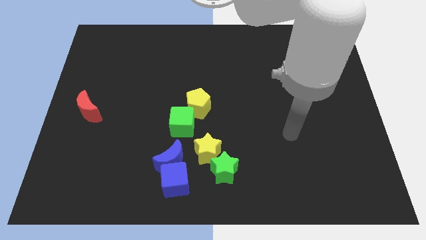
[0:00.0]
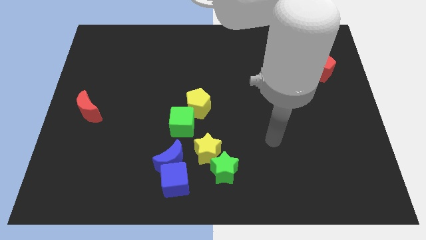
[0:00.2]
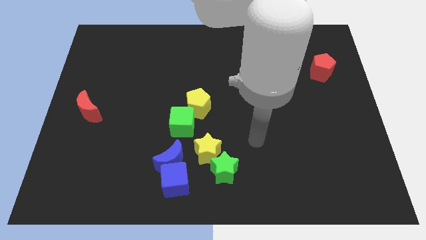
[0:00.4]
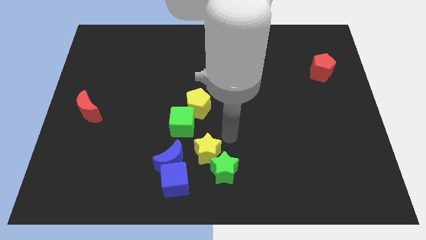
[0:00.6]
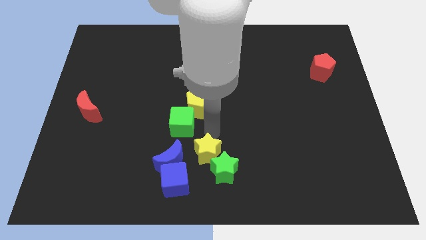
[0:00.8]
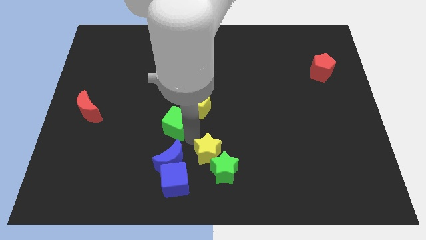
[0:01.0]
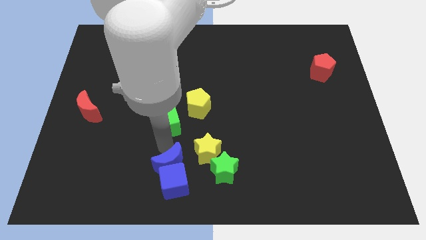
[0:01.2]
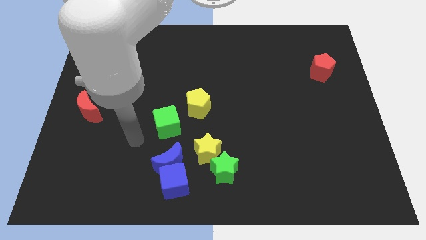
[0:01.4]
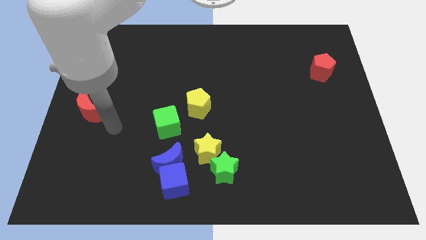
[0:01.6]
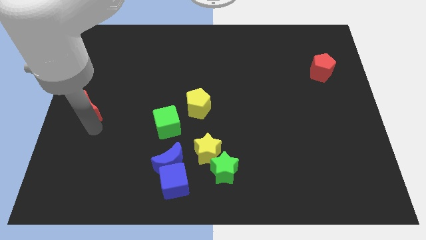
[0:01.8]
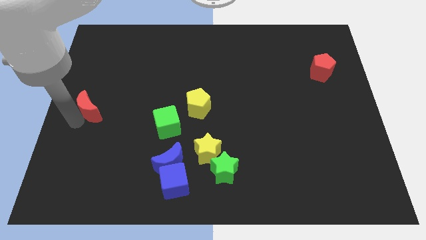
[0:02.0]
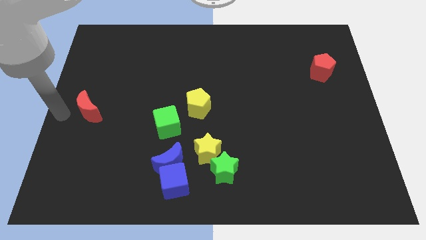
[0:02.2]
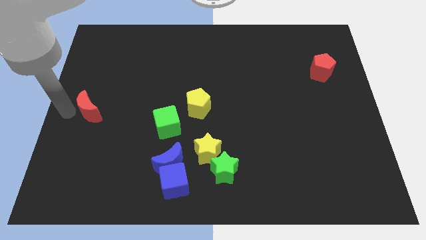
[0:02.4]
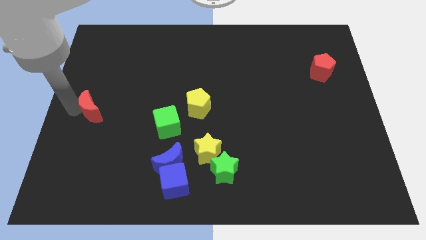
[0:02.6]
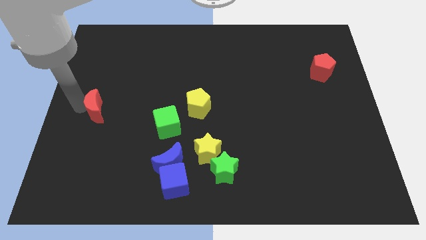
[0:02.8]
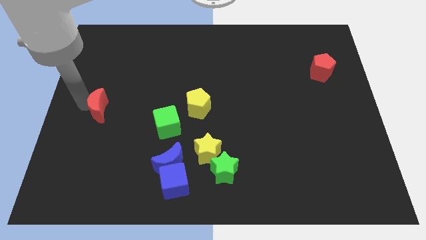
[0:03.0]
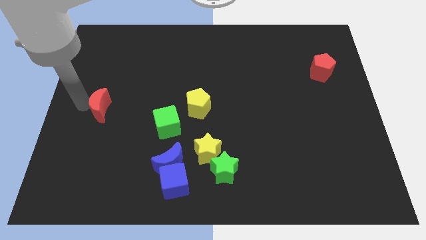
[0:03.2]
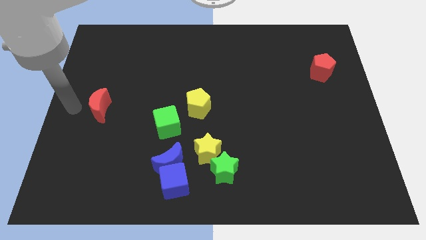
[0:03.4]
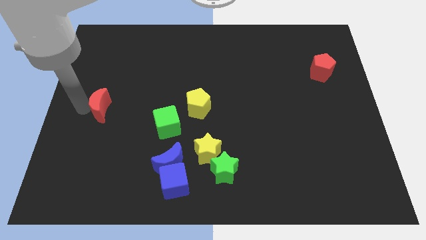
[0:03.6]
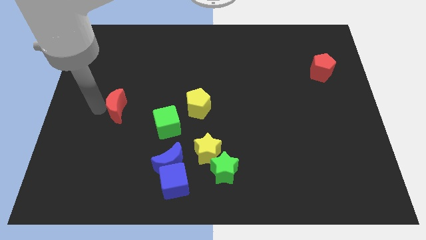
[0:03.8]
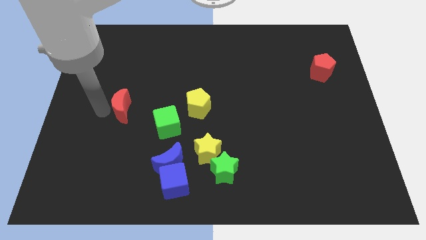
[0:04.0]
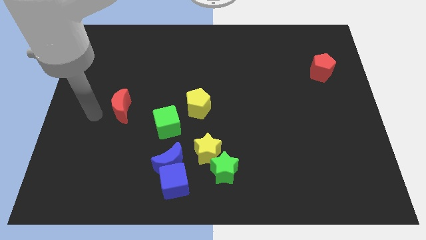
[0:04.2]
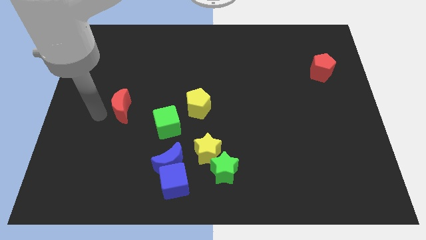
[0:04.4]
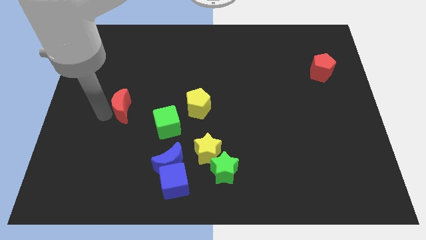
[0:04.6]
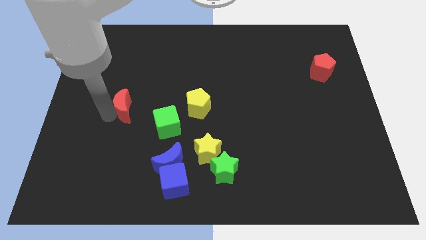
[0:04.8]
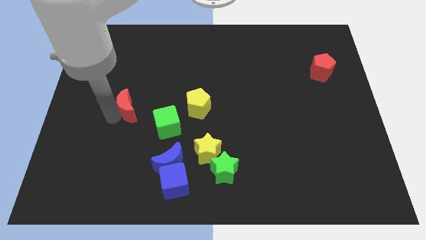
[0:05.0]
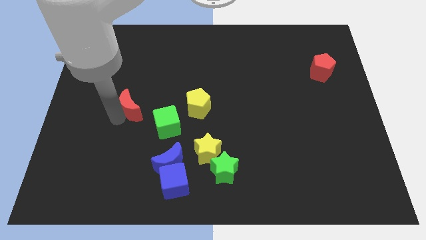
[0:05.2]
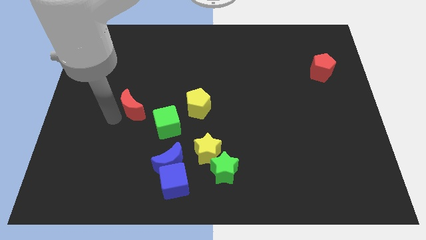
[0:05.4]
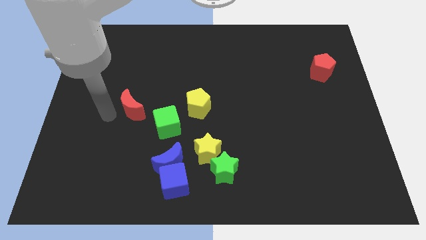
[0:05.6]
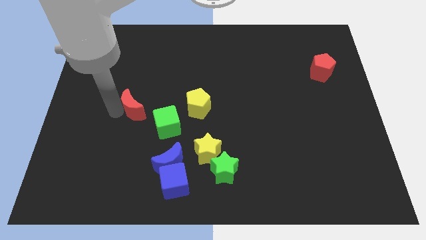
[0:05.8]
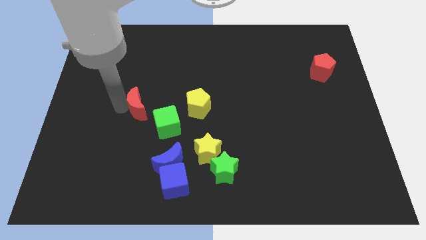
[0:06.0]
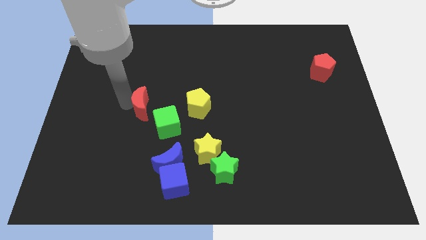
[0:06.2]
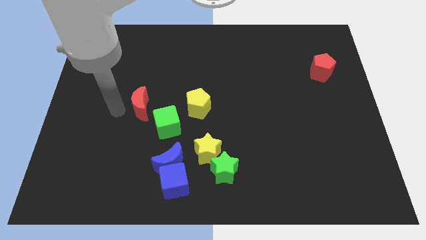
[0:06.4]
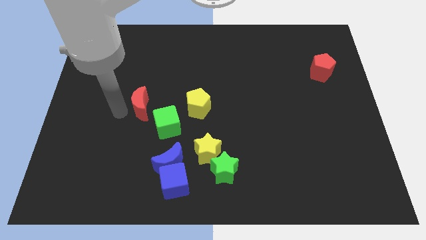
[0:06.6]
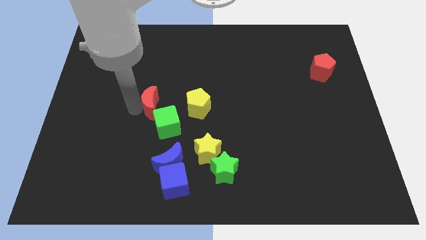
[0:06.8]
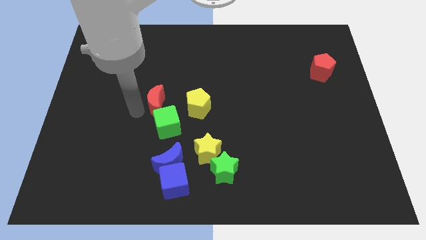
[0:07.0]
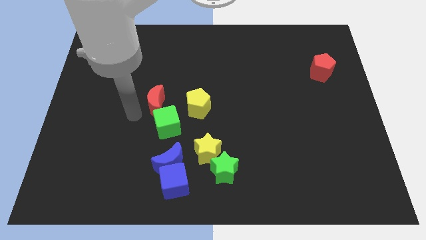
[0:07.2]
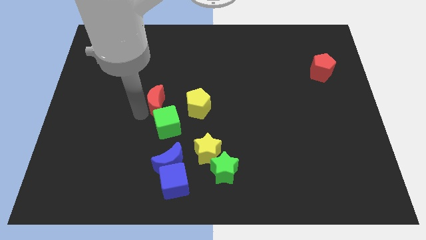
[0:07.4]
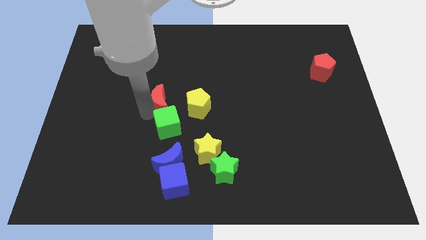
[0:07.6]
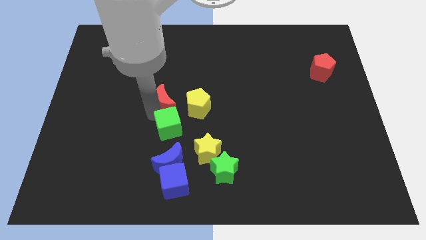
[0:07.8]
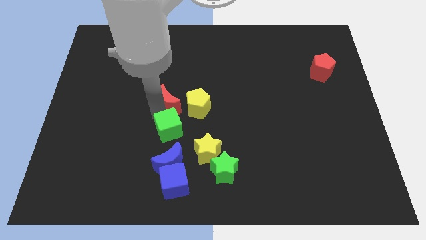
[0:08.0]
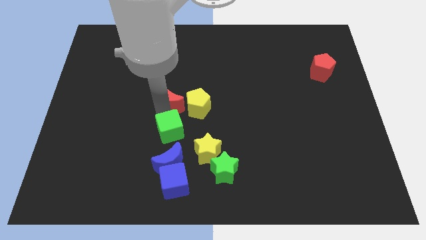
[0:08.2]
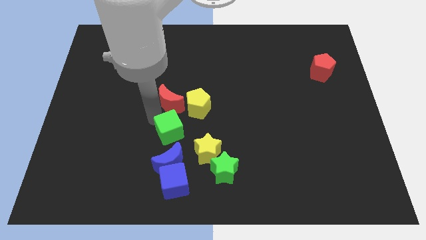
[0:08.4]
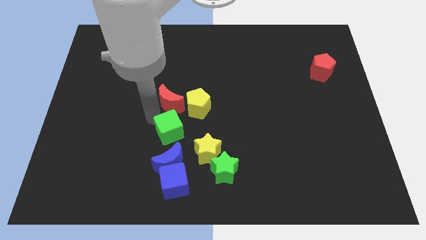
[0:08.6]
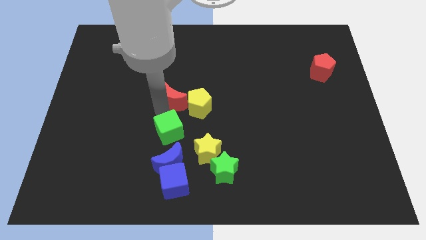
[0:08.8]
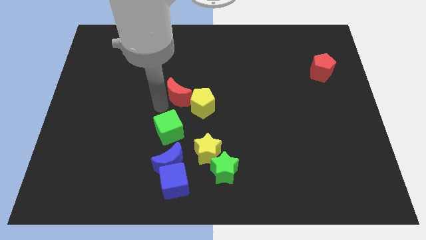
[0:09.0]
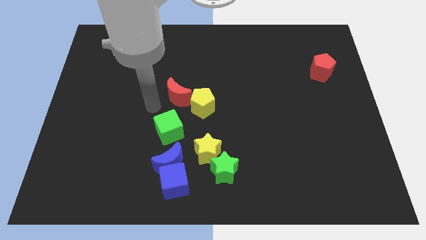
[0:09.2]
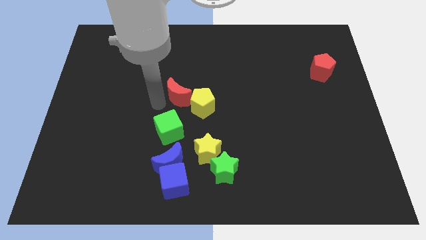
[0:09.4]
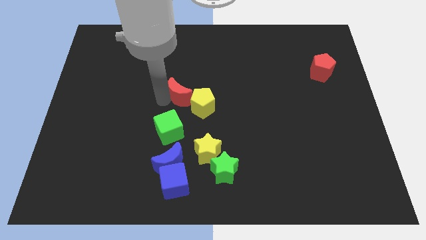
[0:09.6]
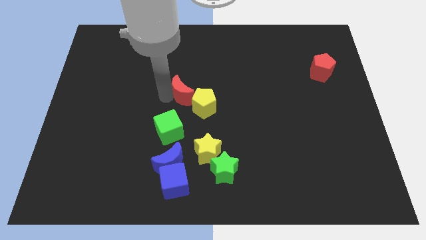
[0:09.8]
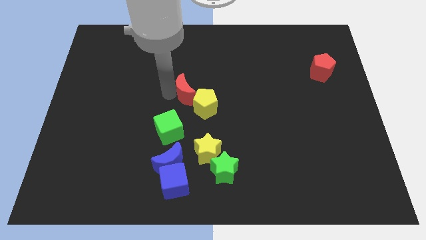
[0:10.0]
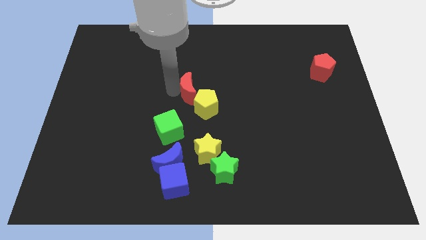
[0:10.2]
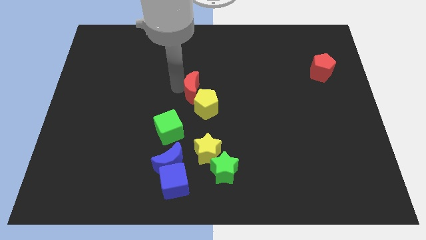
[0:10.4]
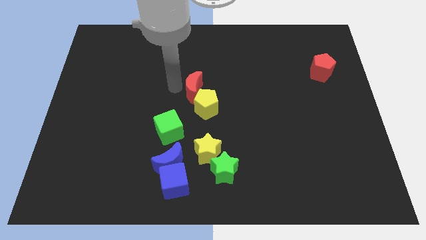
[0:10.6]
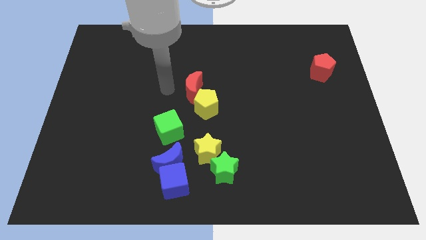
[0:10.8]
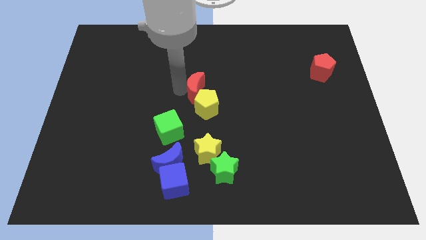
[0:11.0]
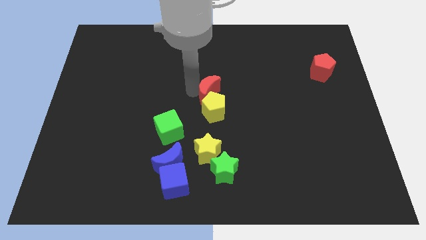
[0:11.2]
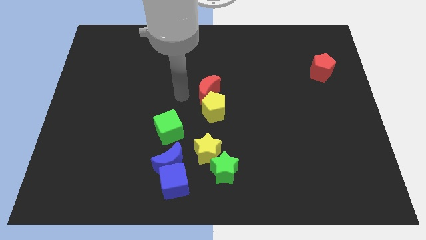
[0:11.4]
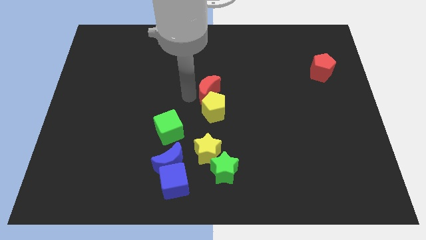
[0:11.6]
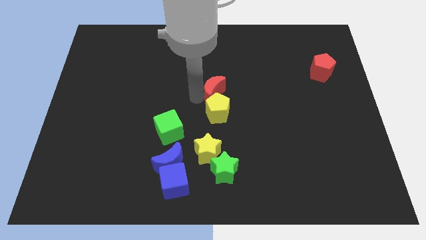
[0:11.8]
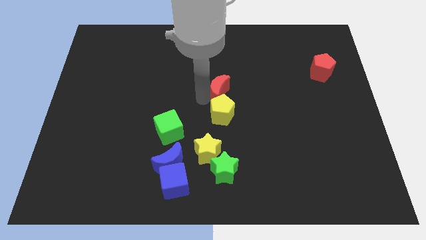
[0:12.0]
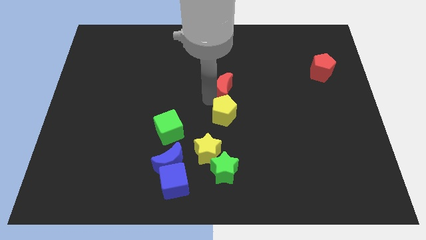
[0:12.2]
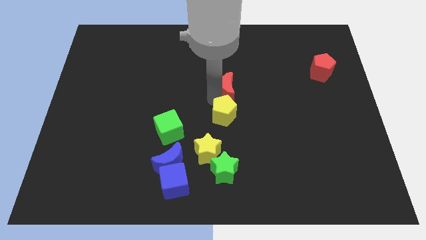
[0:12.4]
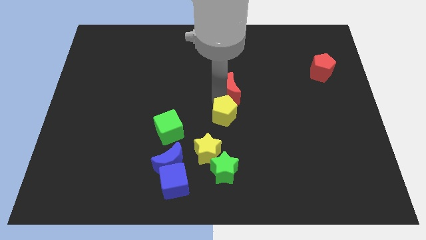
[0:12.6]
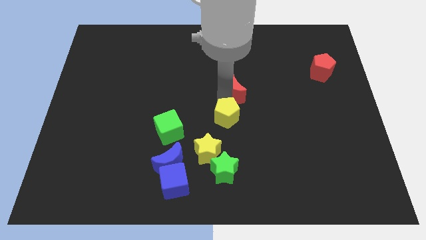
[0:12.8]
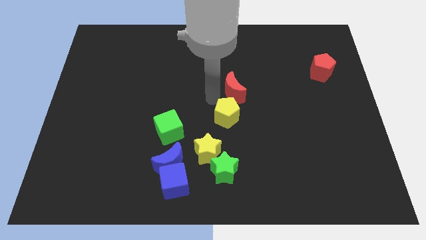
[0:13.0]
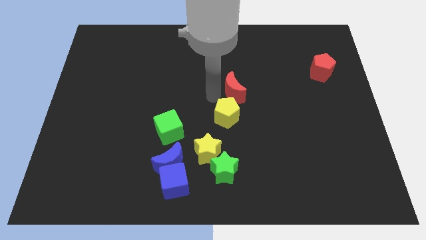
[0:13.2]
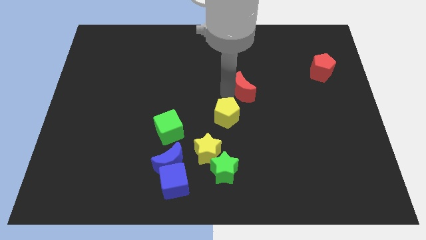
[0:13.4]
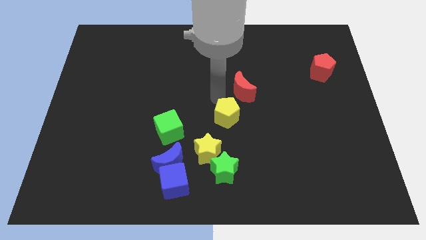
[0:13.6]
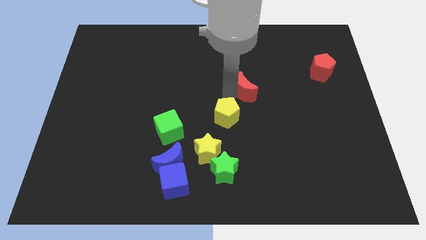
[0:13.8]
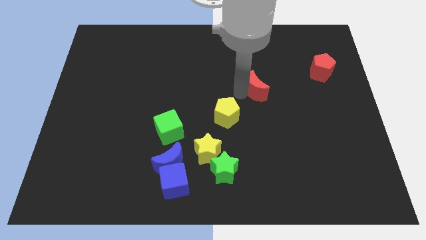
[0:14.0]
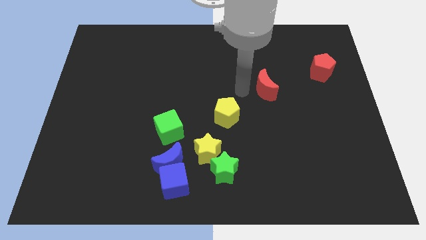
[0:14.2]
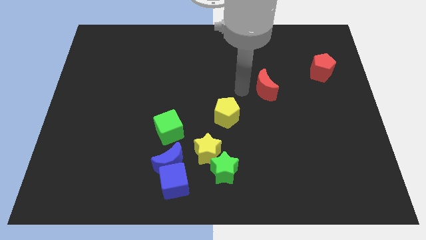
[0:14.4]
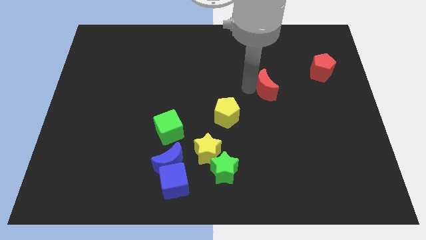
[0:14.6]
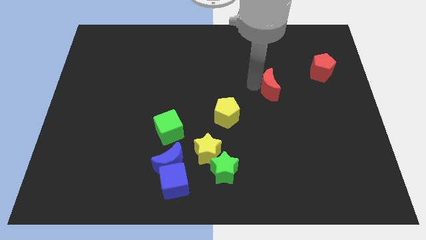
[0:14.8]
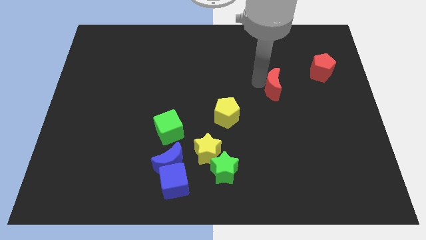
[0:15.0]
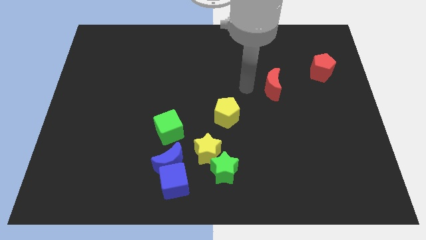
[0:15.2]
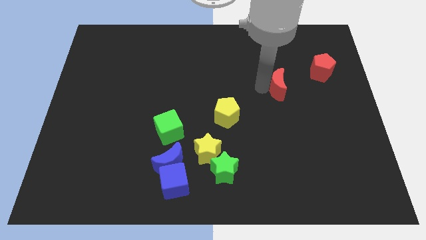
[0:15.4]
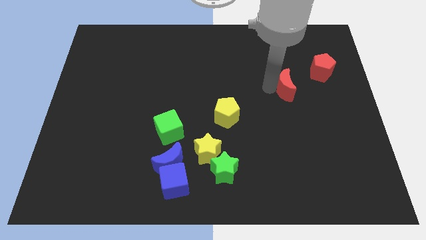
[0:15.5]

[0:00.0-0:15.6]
push the red moon to the bottom left of the red pentagon

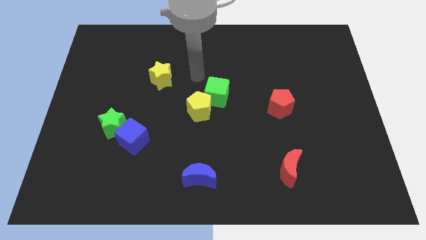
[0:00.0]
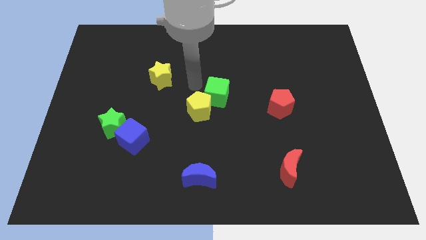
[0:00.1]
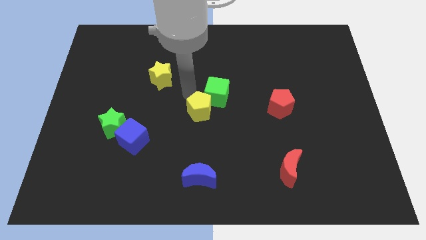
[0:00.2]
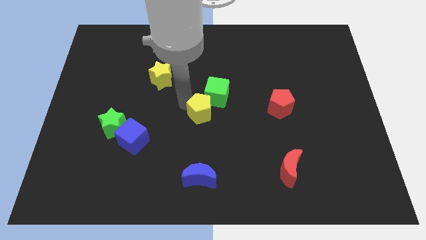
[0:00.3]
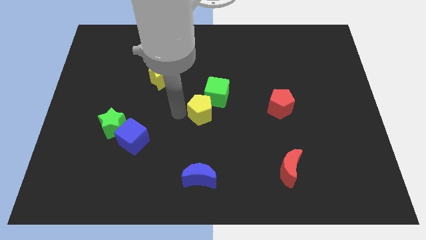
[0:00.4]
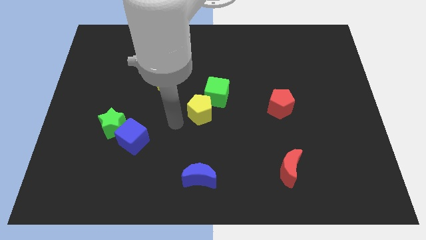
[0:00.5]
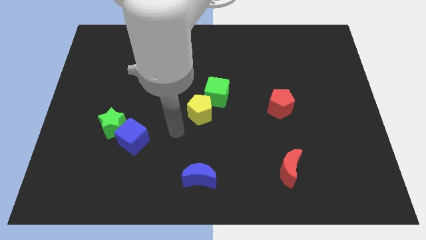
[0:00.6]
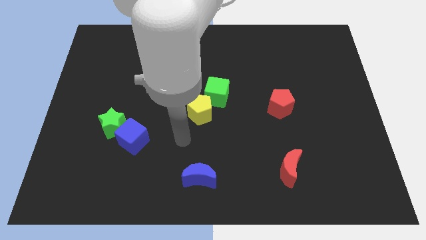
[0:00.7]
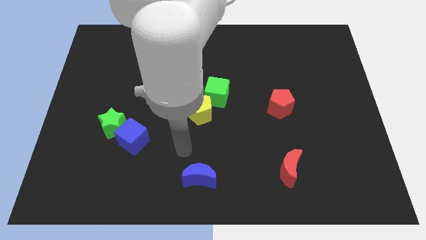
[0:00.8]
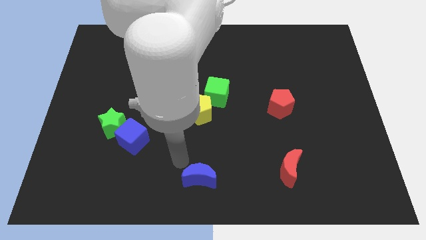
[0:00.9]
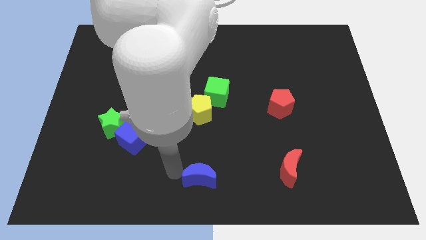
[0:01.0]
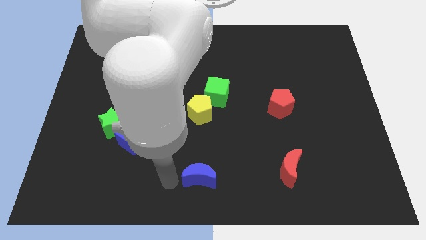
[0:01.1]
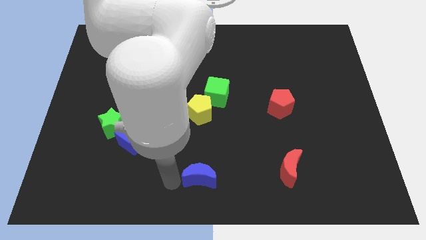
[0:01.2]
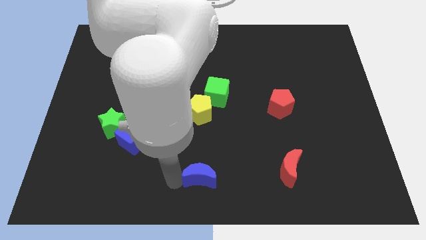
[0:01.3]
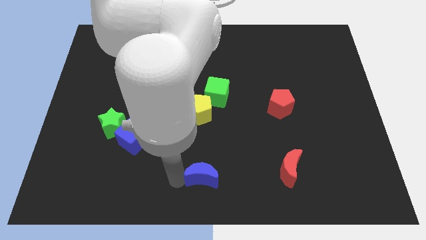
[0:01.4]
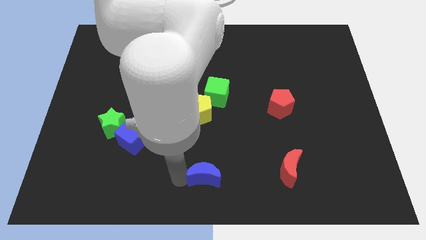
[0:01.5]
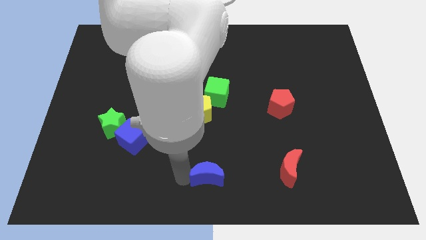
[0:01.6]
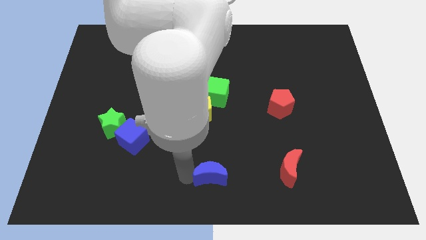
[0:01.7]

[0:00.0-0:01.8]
slide the blue moon to the left side of the red moon
